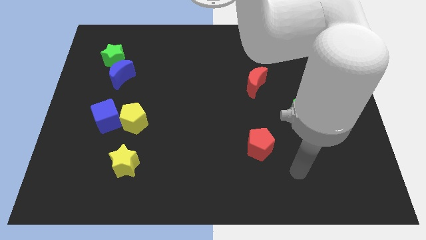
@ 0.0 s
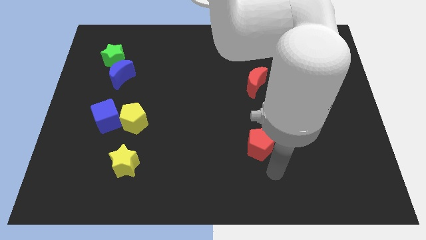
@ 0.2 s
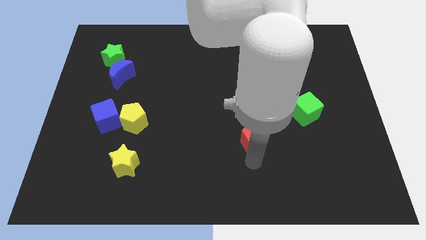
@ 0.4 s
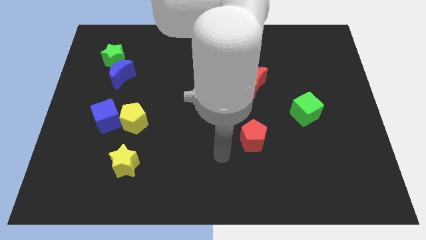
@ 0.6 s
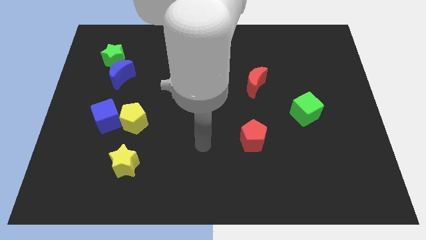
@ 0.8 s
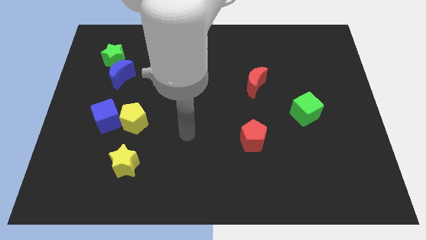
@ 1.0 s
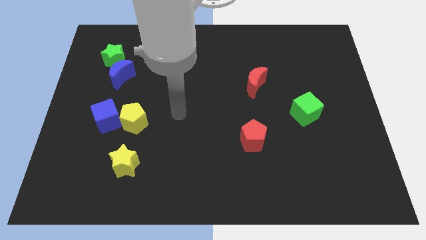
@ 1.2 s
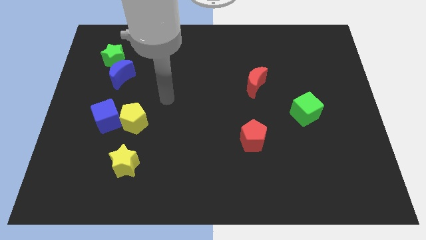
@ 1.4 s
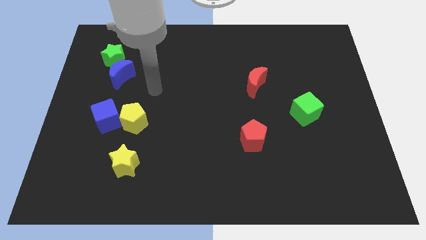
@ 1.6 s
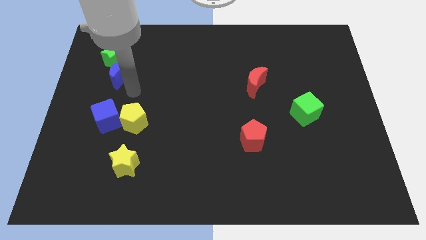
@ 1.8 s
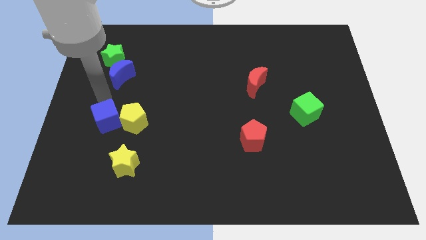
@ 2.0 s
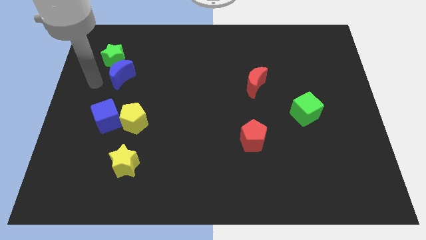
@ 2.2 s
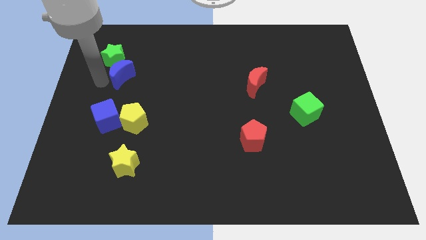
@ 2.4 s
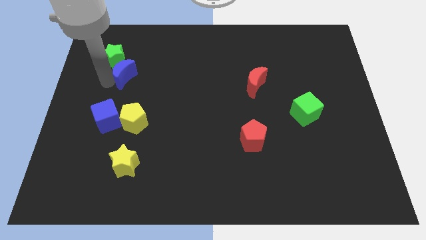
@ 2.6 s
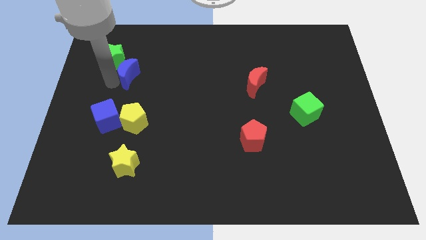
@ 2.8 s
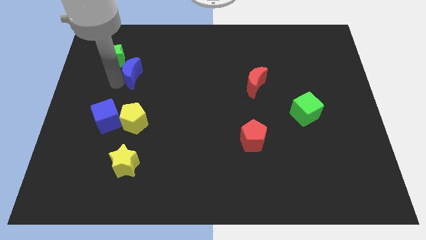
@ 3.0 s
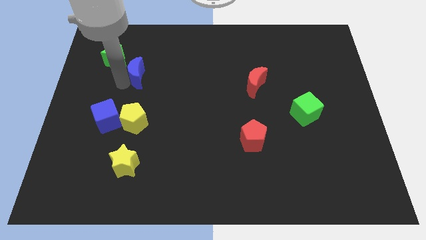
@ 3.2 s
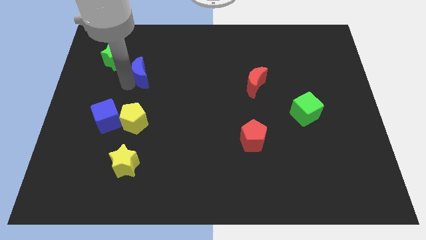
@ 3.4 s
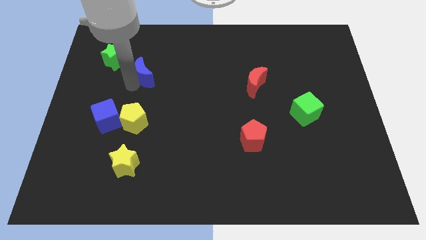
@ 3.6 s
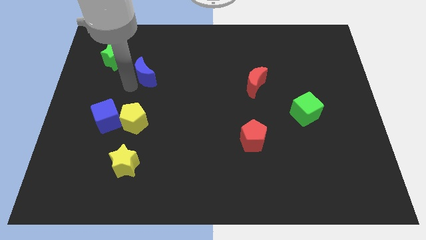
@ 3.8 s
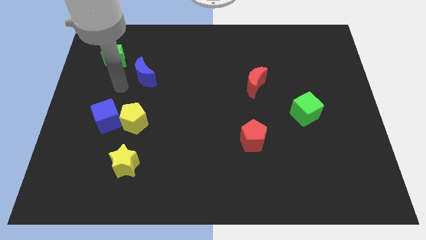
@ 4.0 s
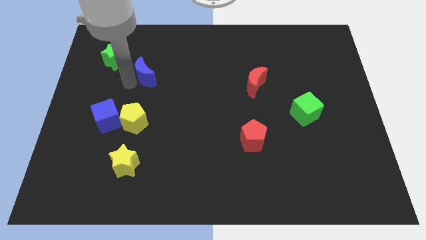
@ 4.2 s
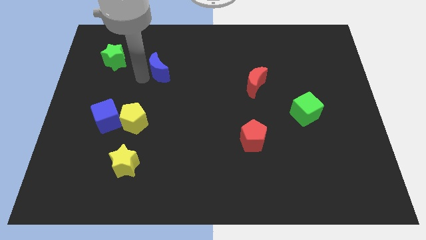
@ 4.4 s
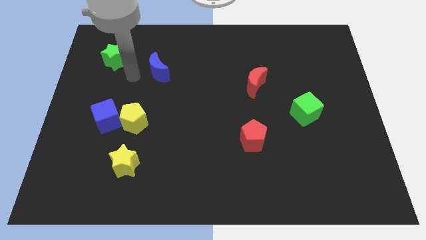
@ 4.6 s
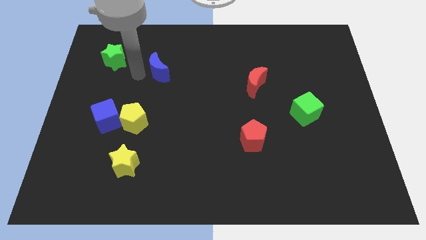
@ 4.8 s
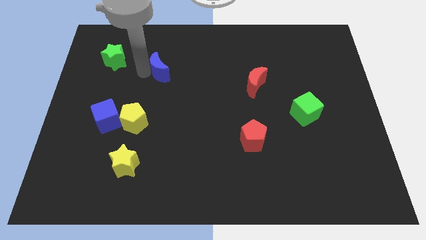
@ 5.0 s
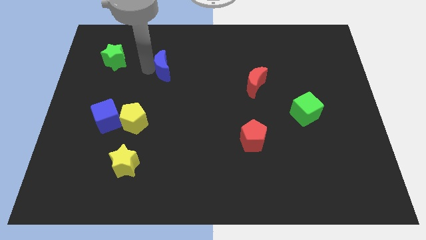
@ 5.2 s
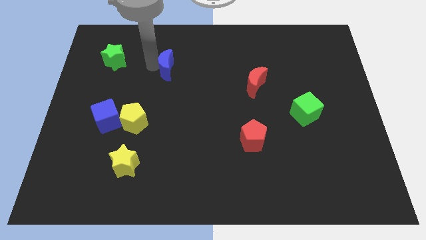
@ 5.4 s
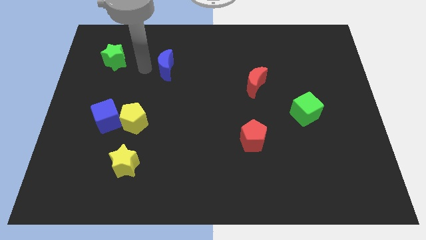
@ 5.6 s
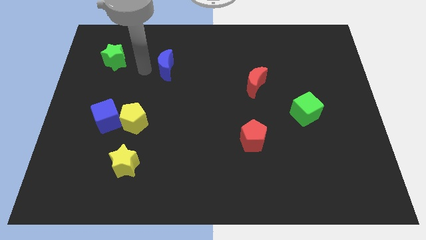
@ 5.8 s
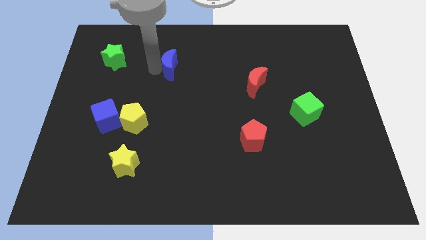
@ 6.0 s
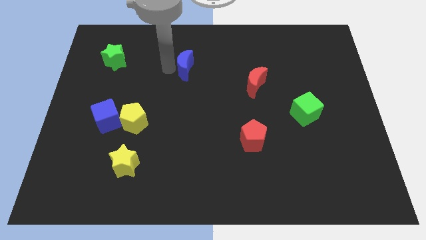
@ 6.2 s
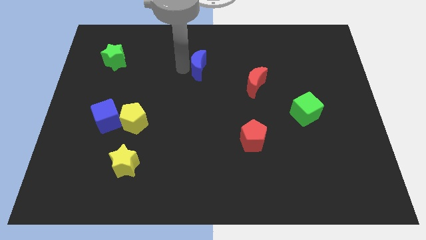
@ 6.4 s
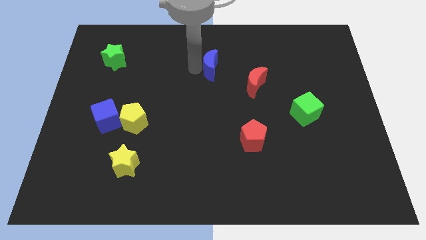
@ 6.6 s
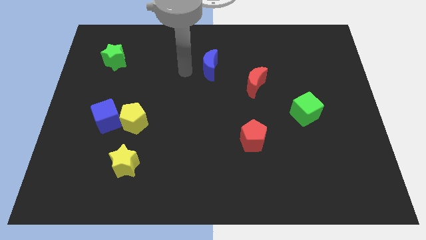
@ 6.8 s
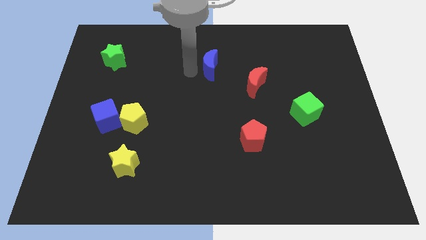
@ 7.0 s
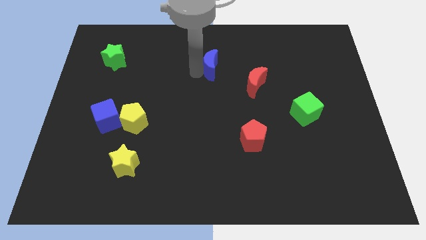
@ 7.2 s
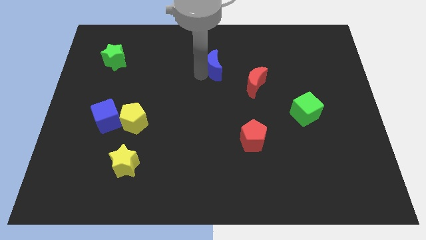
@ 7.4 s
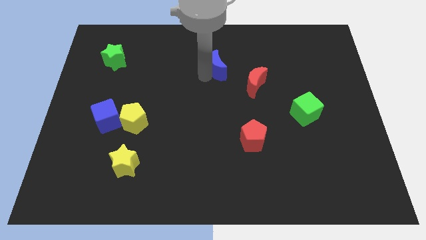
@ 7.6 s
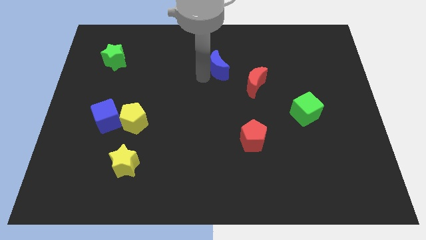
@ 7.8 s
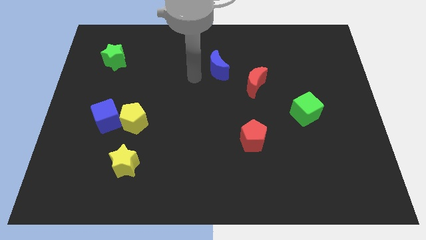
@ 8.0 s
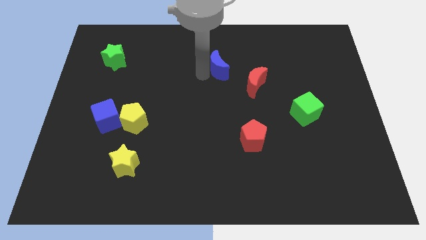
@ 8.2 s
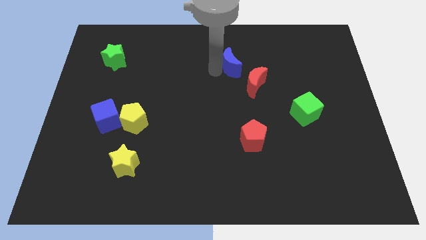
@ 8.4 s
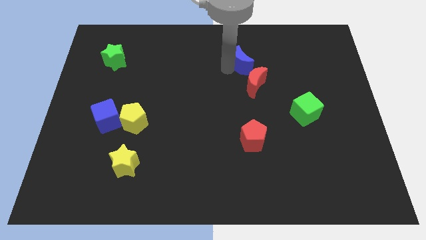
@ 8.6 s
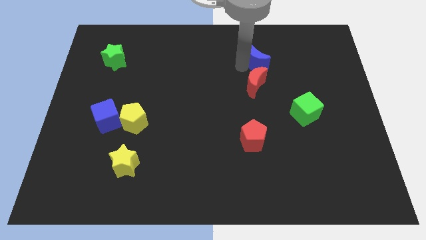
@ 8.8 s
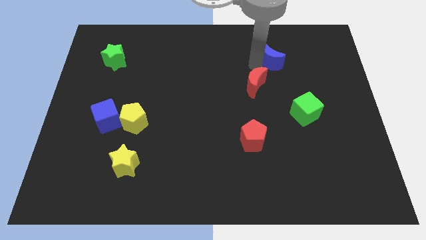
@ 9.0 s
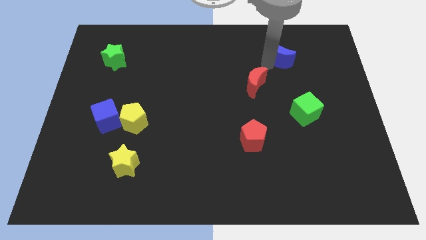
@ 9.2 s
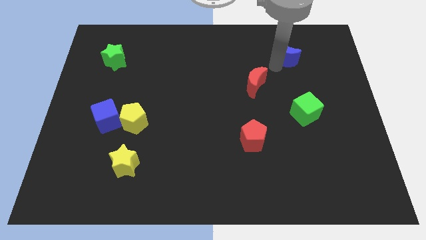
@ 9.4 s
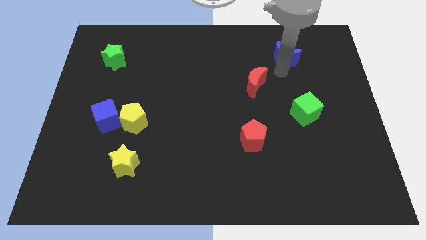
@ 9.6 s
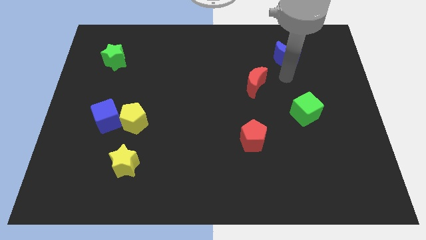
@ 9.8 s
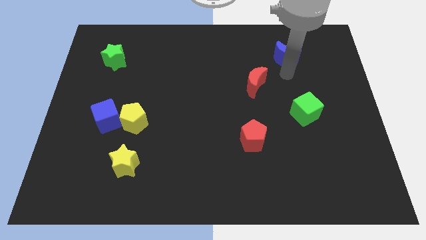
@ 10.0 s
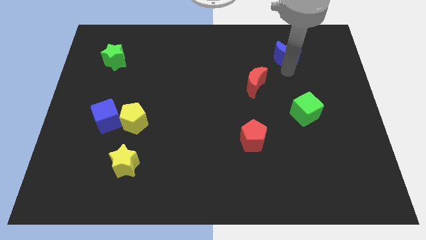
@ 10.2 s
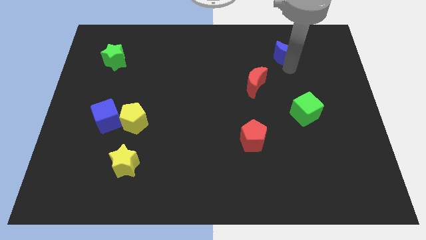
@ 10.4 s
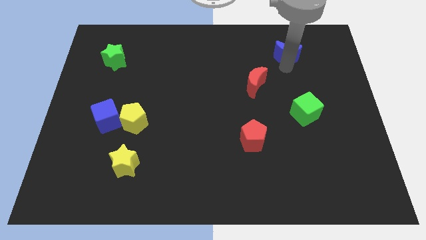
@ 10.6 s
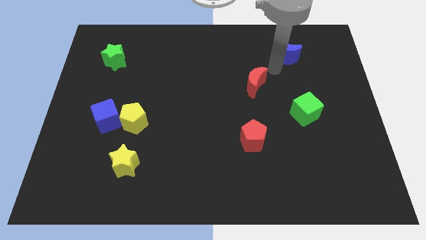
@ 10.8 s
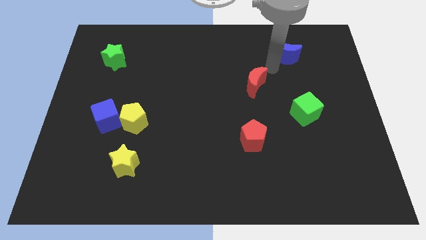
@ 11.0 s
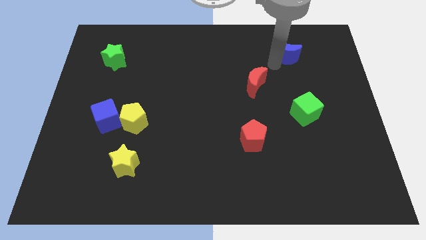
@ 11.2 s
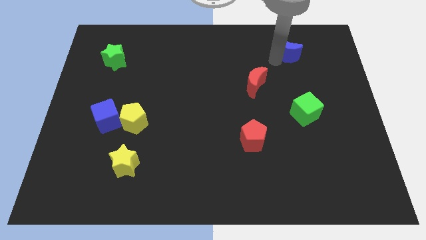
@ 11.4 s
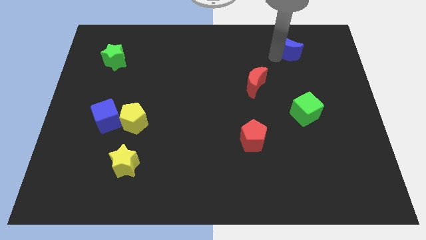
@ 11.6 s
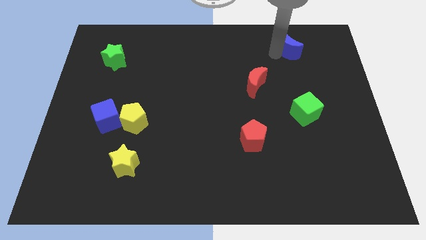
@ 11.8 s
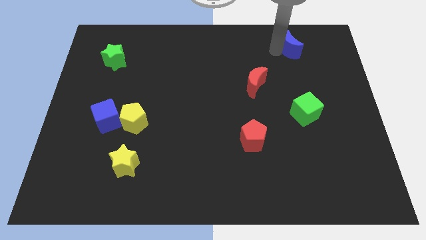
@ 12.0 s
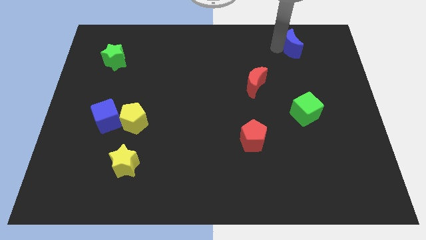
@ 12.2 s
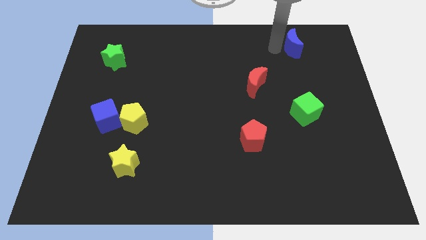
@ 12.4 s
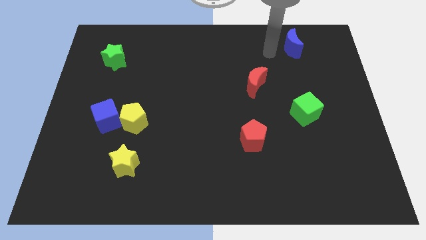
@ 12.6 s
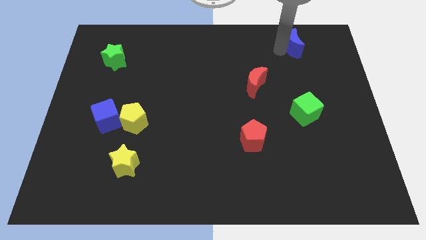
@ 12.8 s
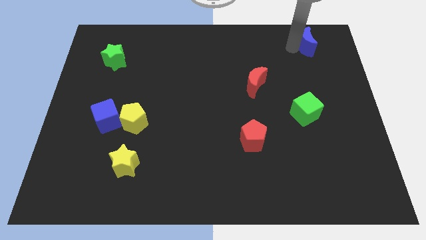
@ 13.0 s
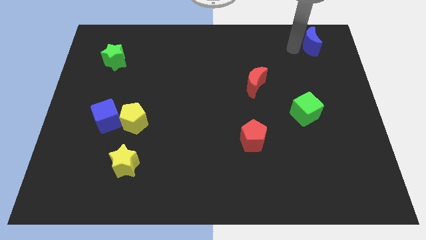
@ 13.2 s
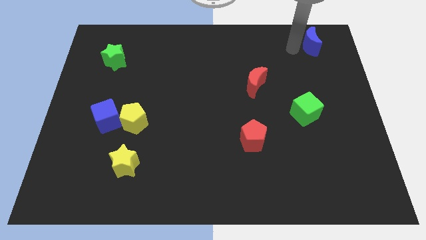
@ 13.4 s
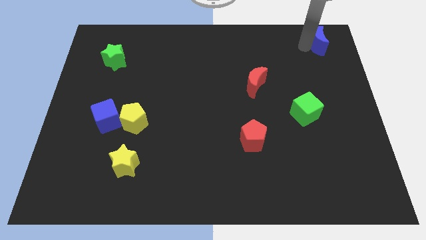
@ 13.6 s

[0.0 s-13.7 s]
push the blue moon to the top right of the board
